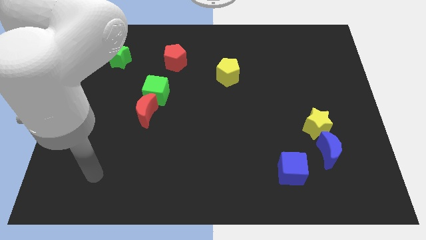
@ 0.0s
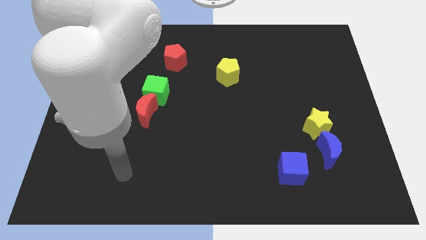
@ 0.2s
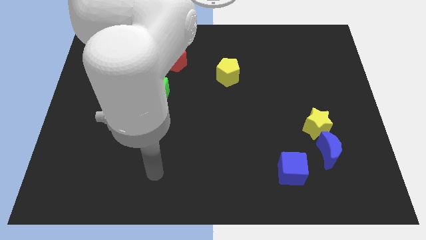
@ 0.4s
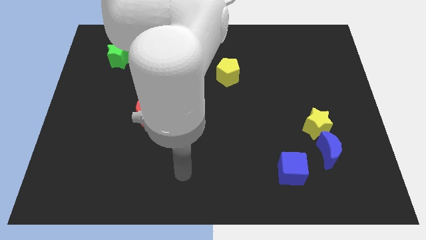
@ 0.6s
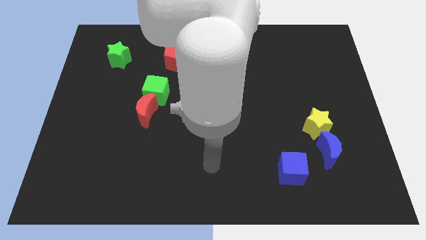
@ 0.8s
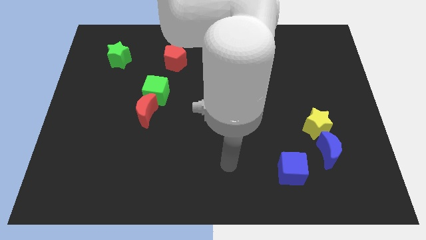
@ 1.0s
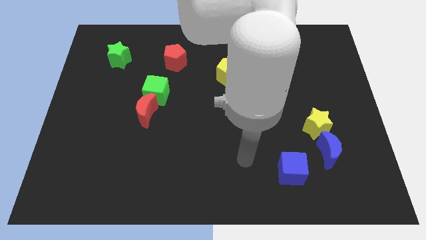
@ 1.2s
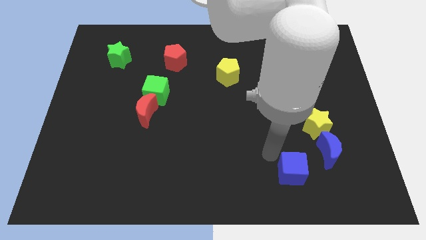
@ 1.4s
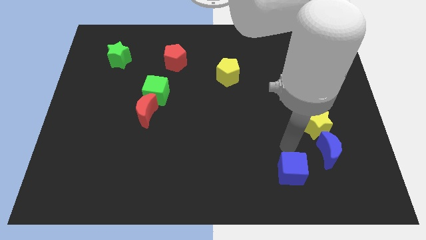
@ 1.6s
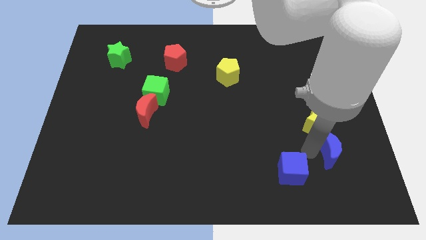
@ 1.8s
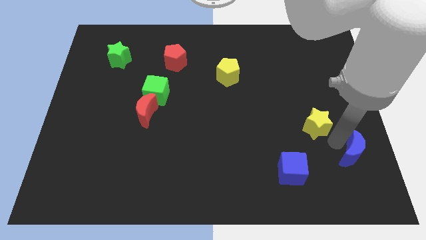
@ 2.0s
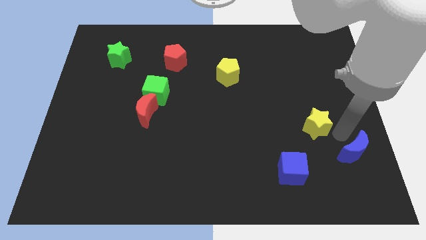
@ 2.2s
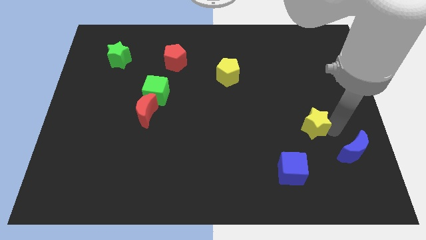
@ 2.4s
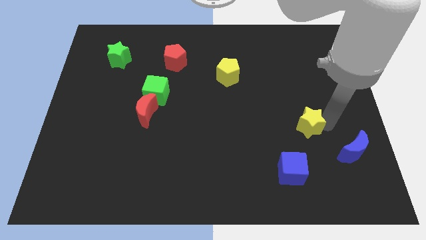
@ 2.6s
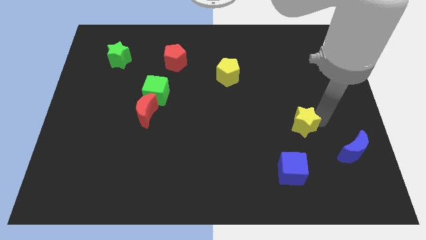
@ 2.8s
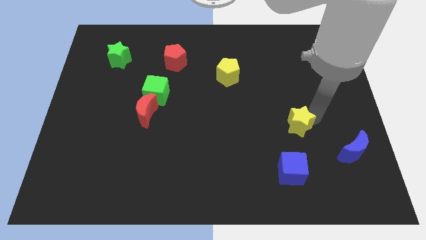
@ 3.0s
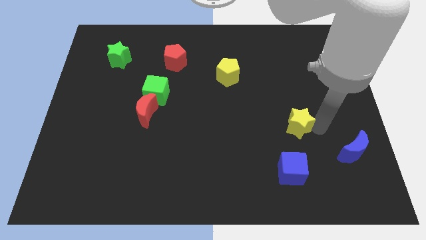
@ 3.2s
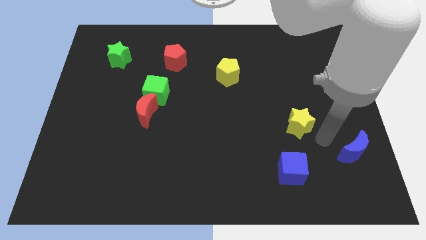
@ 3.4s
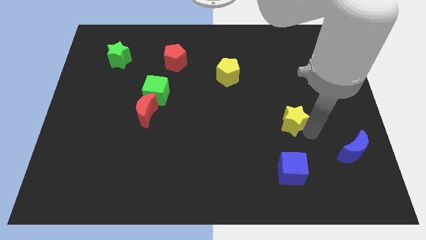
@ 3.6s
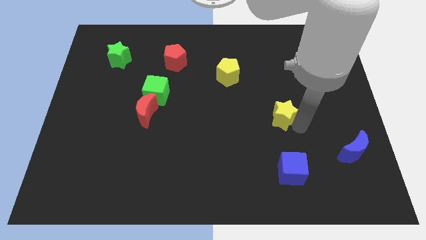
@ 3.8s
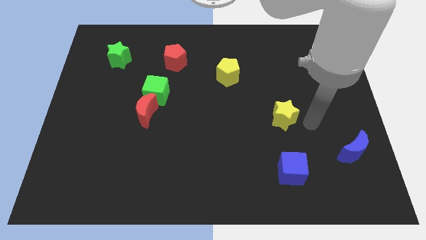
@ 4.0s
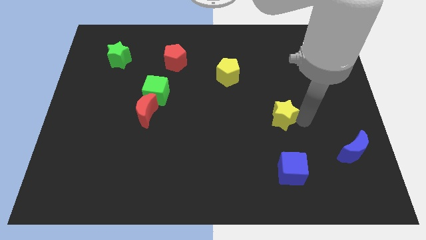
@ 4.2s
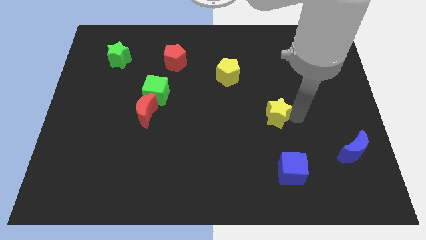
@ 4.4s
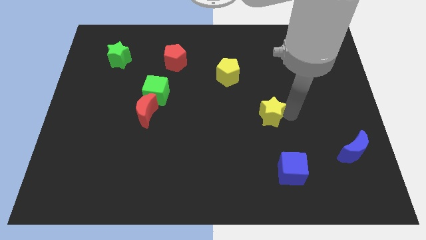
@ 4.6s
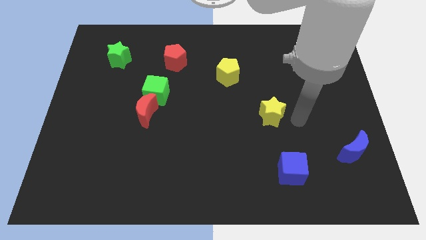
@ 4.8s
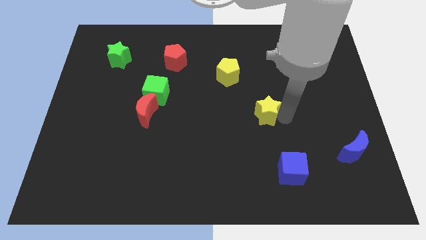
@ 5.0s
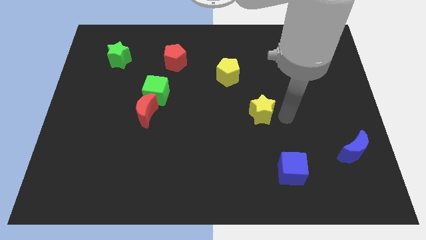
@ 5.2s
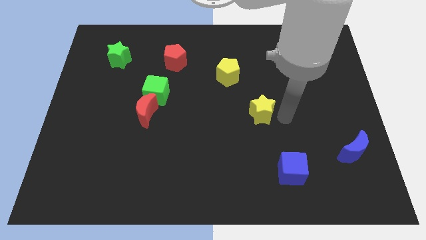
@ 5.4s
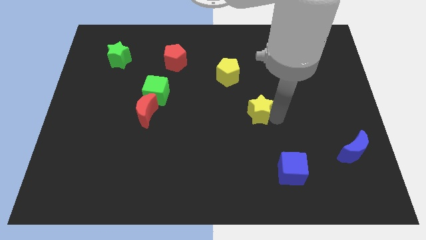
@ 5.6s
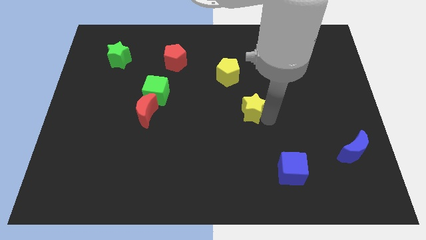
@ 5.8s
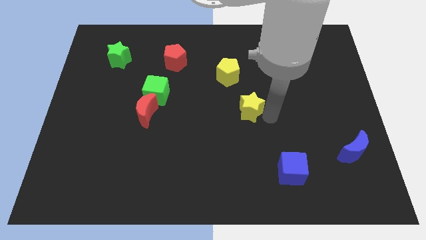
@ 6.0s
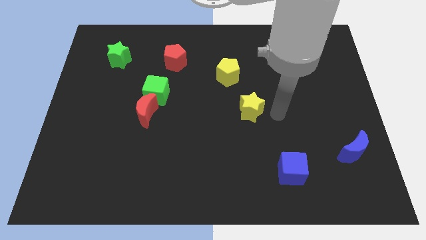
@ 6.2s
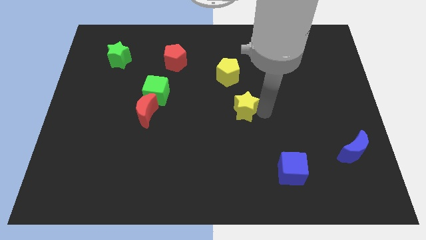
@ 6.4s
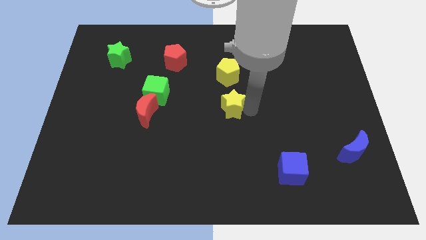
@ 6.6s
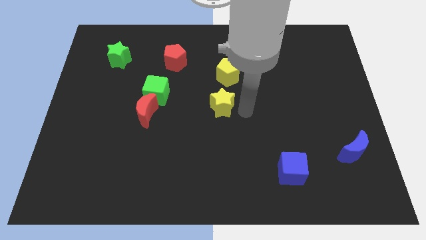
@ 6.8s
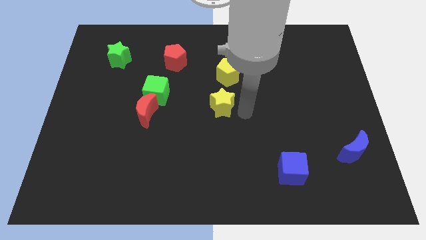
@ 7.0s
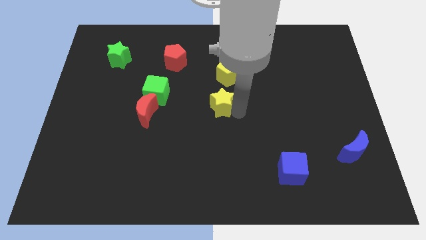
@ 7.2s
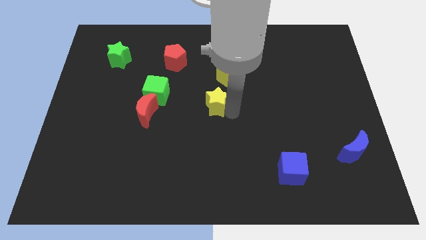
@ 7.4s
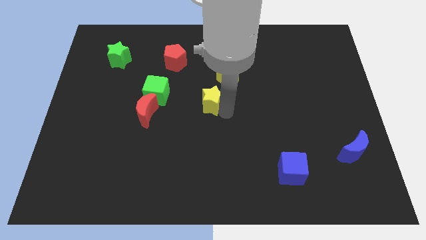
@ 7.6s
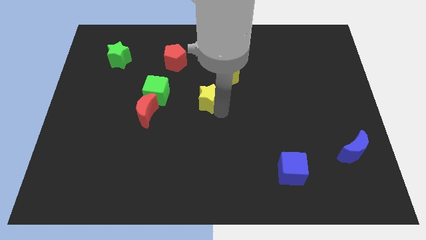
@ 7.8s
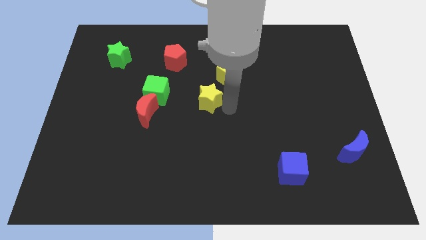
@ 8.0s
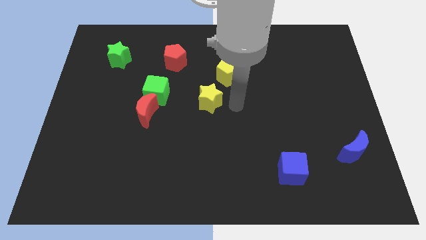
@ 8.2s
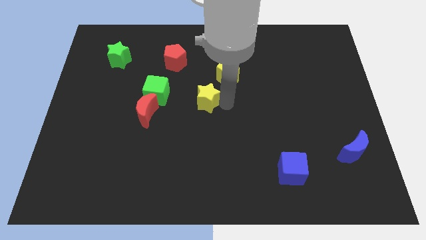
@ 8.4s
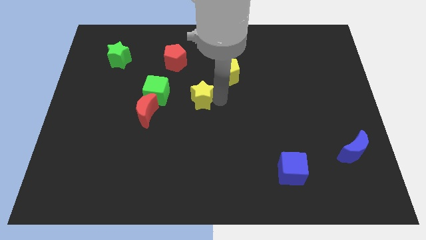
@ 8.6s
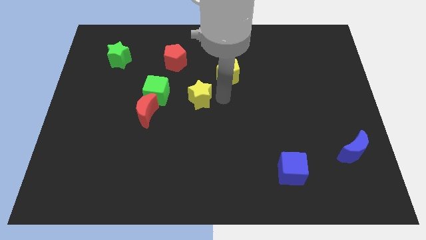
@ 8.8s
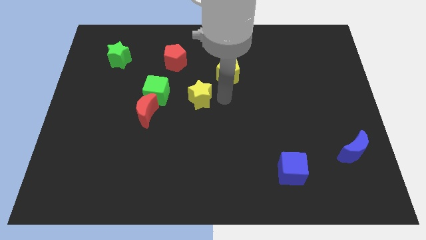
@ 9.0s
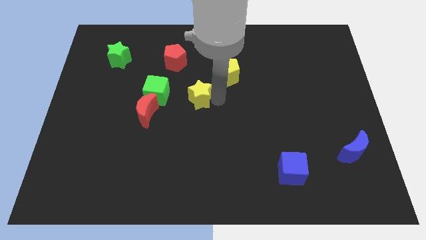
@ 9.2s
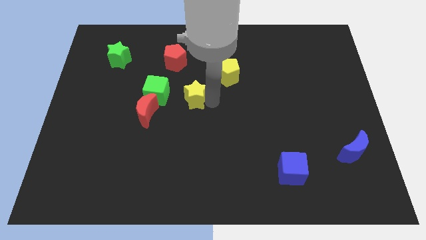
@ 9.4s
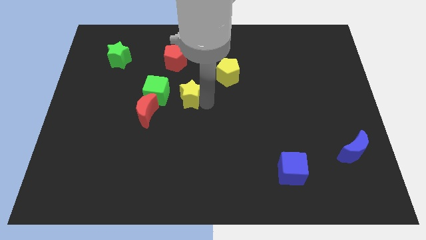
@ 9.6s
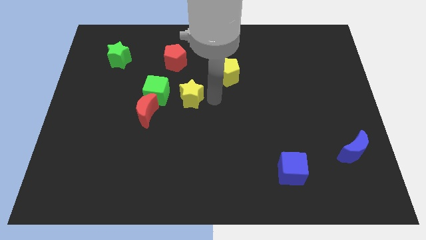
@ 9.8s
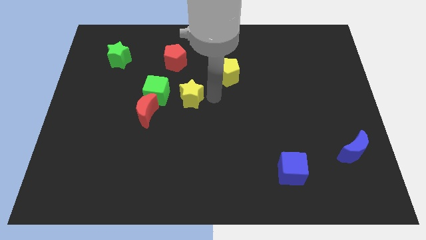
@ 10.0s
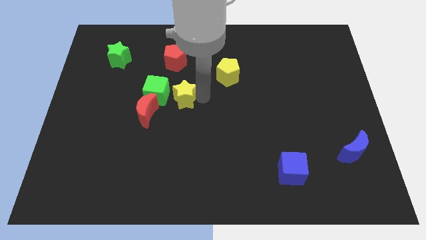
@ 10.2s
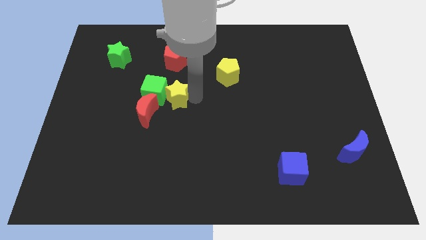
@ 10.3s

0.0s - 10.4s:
push the yellow star next to the green cube

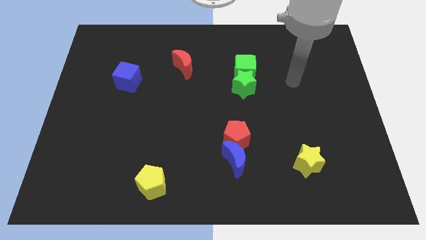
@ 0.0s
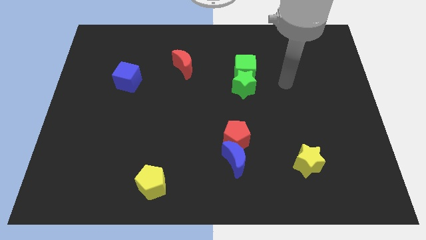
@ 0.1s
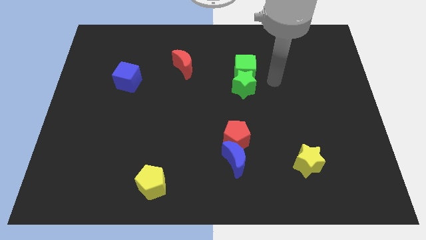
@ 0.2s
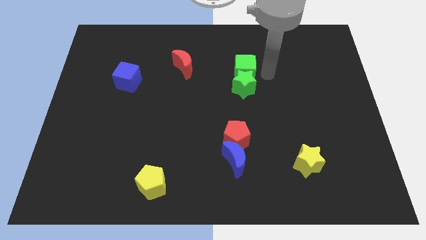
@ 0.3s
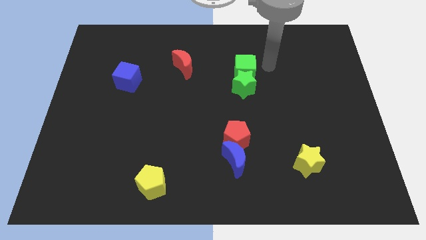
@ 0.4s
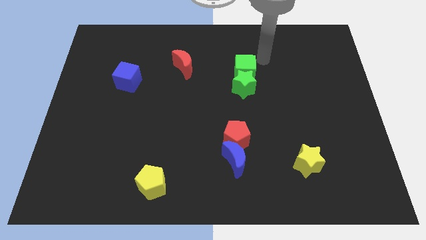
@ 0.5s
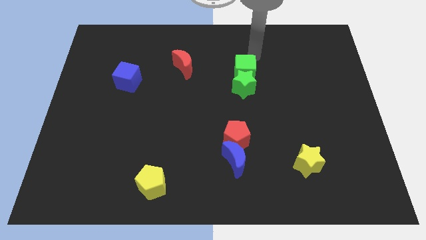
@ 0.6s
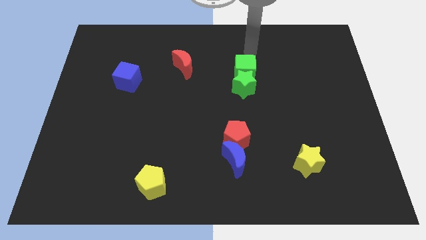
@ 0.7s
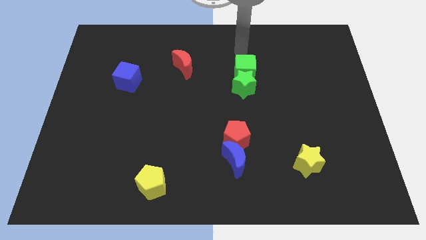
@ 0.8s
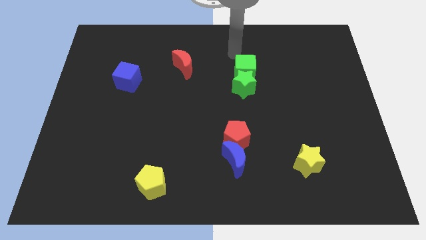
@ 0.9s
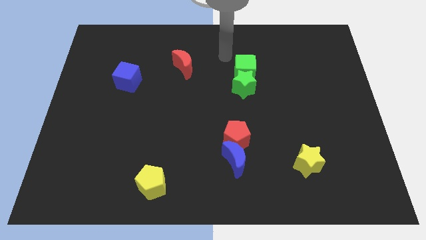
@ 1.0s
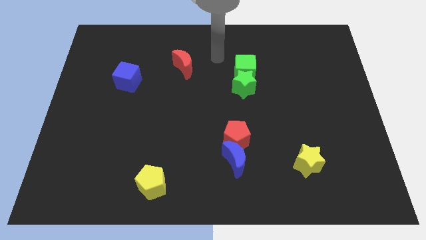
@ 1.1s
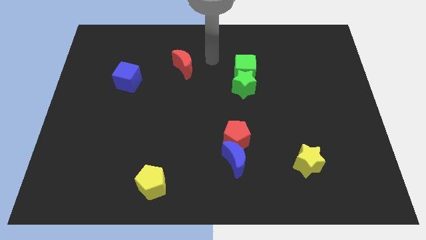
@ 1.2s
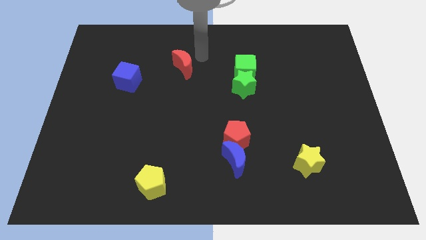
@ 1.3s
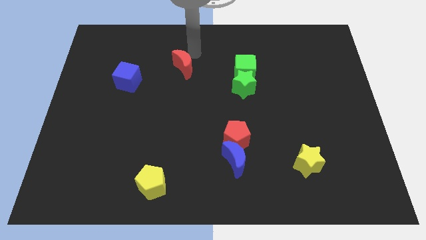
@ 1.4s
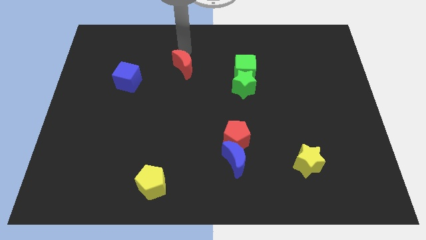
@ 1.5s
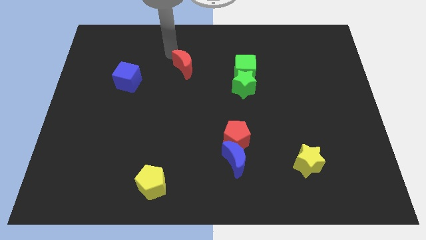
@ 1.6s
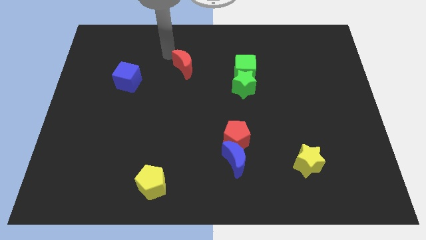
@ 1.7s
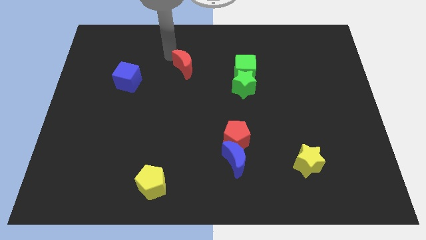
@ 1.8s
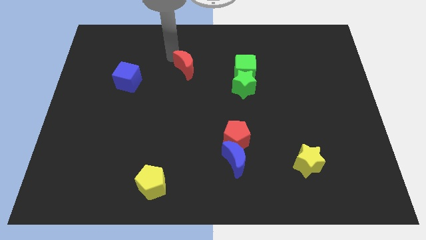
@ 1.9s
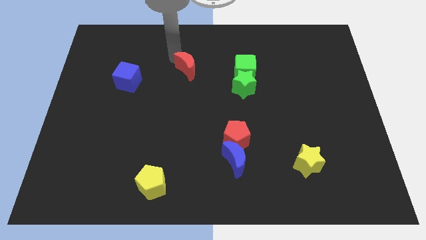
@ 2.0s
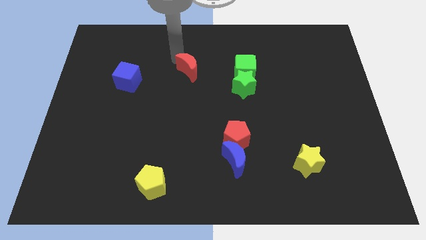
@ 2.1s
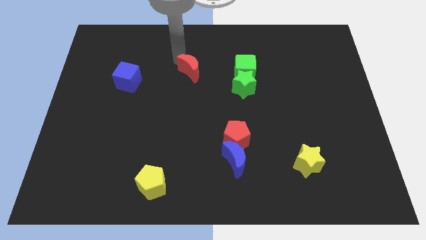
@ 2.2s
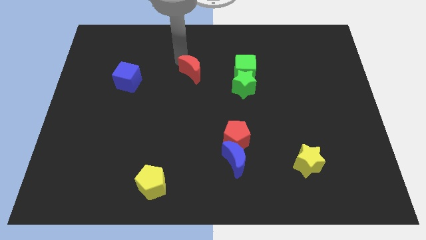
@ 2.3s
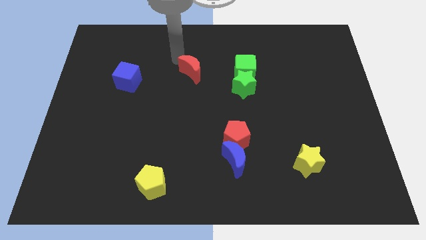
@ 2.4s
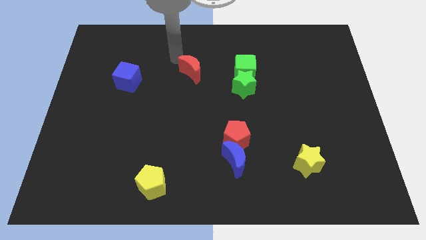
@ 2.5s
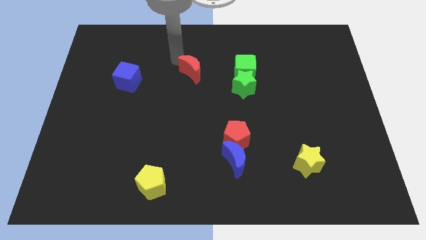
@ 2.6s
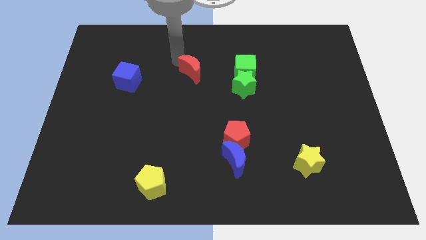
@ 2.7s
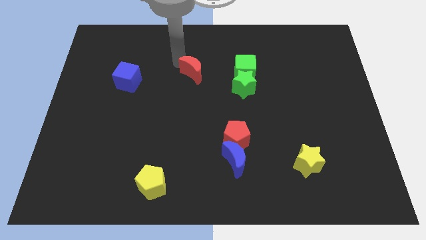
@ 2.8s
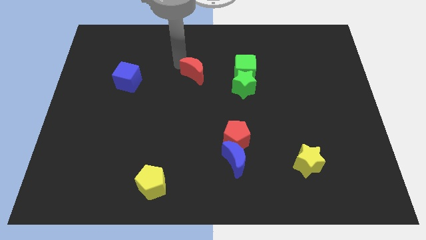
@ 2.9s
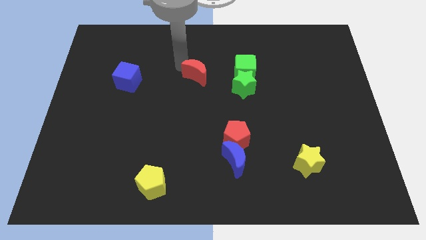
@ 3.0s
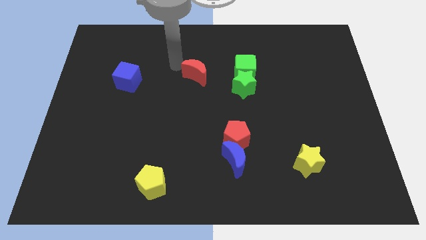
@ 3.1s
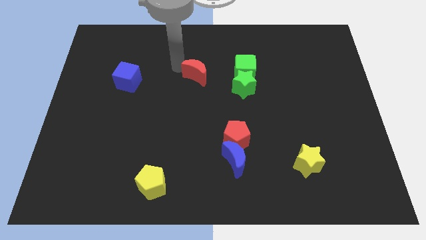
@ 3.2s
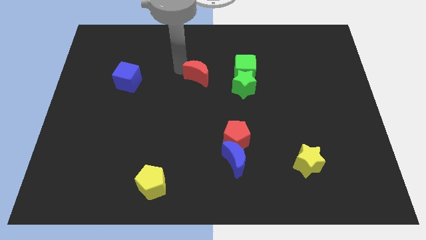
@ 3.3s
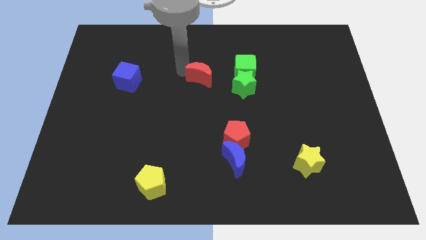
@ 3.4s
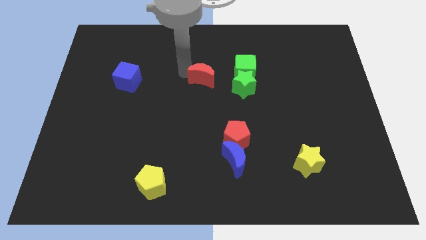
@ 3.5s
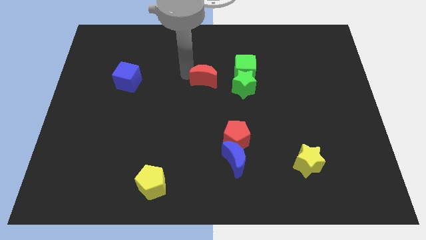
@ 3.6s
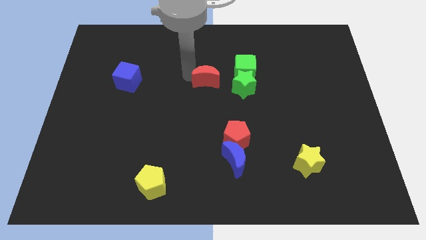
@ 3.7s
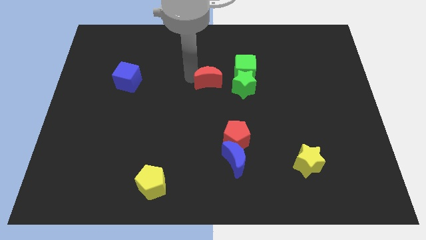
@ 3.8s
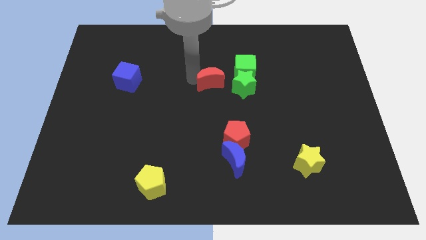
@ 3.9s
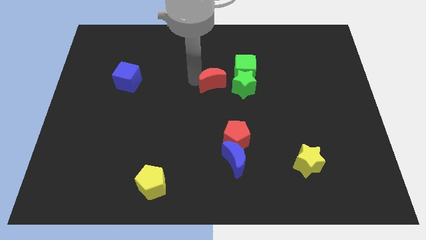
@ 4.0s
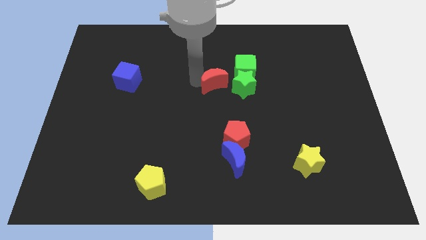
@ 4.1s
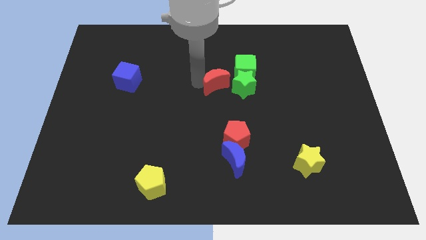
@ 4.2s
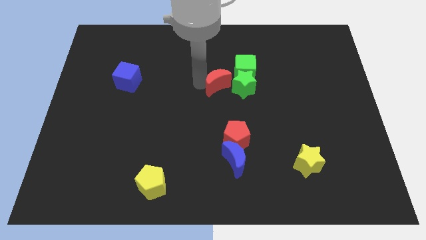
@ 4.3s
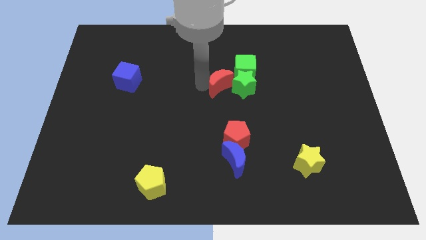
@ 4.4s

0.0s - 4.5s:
push the red moon next to the green star
